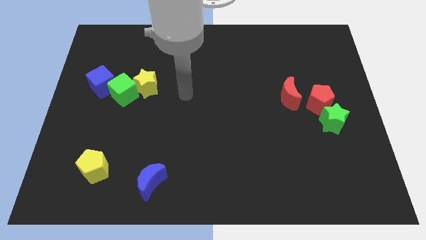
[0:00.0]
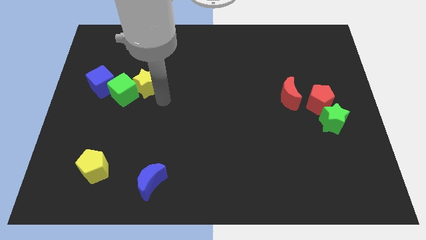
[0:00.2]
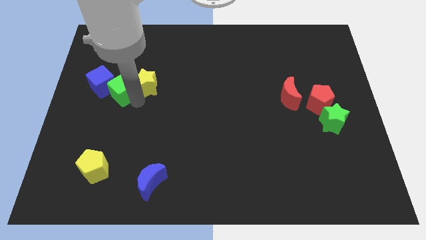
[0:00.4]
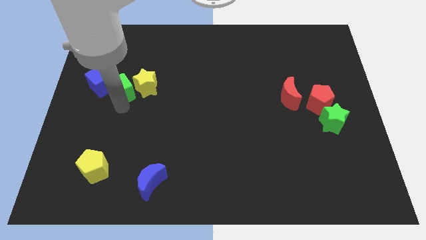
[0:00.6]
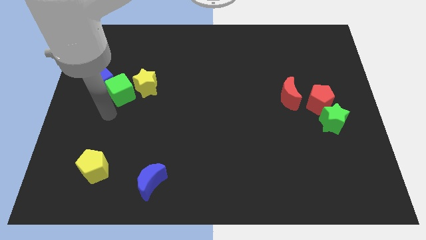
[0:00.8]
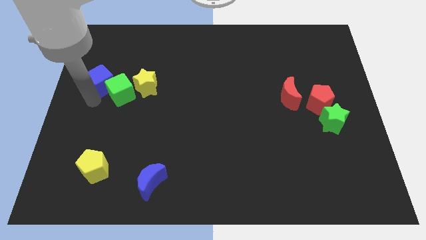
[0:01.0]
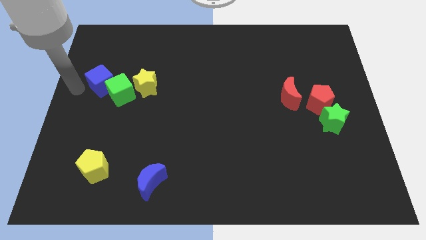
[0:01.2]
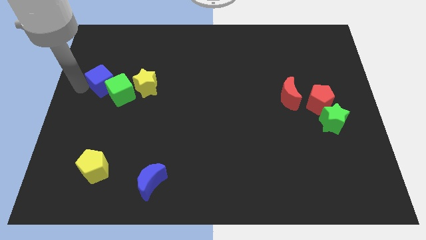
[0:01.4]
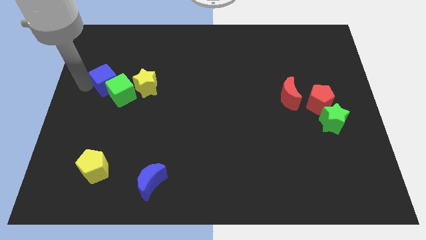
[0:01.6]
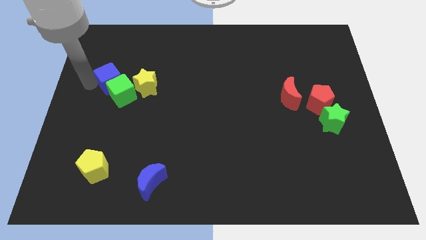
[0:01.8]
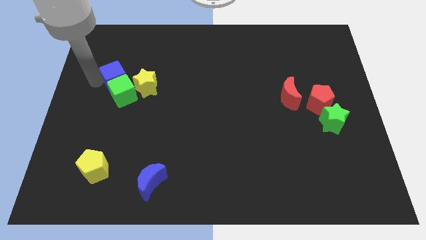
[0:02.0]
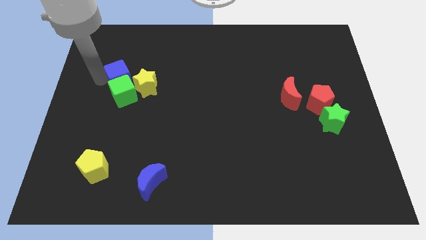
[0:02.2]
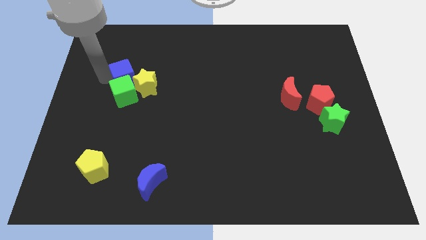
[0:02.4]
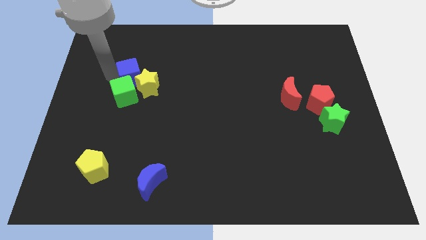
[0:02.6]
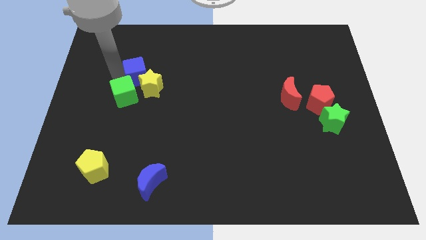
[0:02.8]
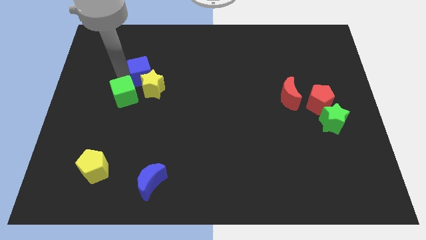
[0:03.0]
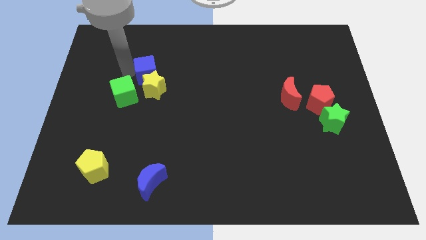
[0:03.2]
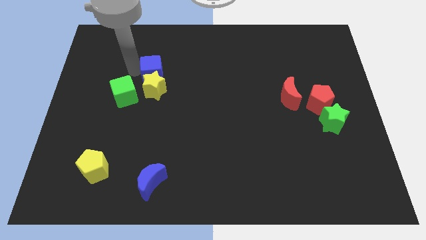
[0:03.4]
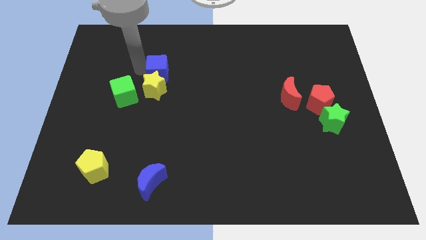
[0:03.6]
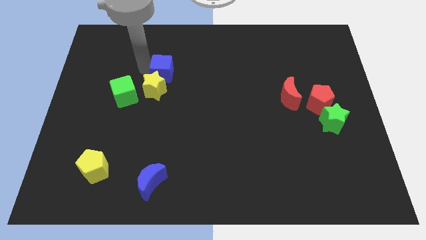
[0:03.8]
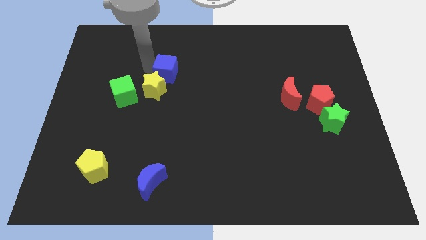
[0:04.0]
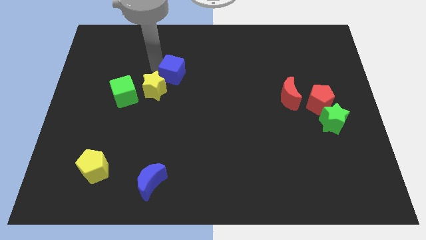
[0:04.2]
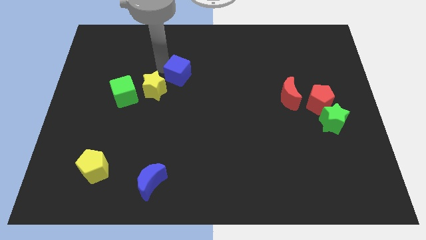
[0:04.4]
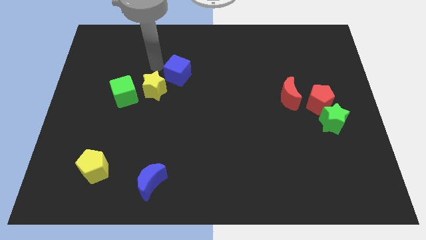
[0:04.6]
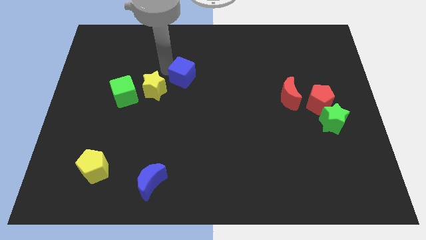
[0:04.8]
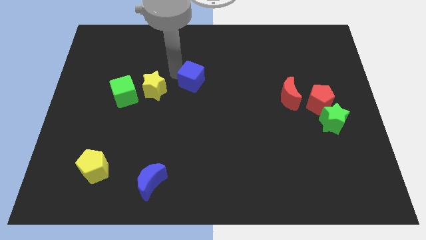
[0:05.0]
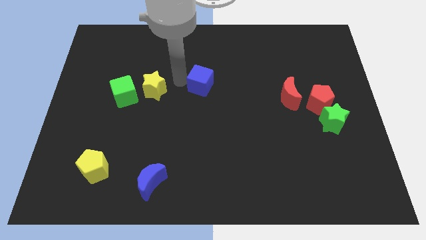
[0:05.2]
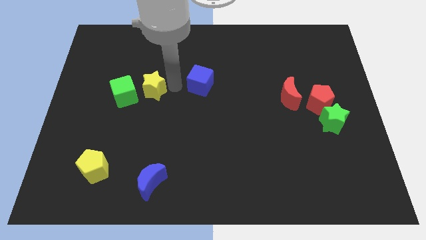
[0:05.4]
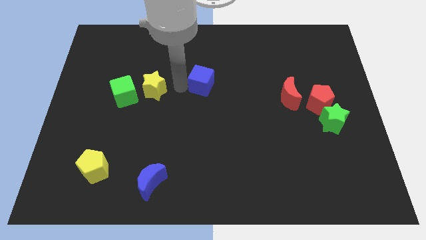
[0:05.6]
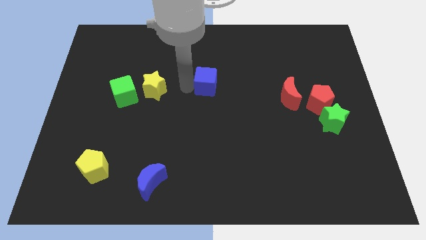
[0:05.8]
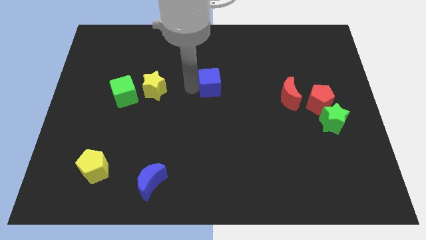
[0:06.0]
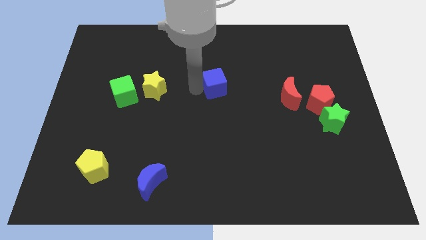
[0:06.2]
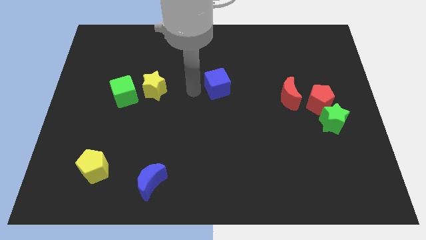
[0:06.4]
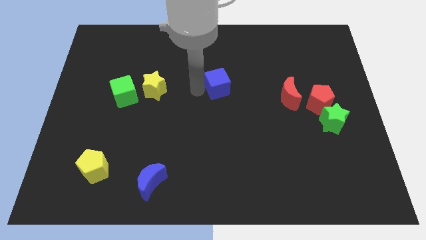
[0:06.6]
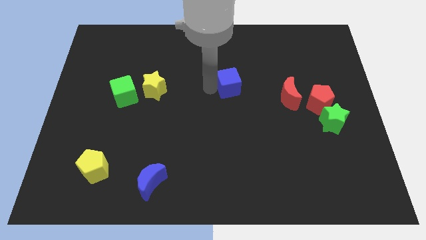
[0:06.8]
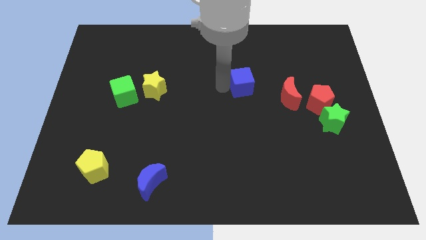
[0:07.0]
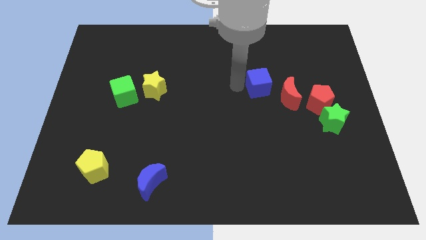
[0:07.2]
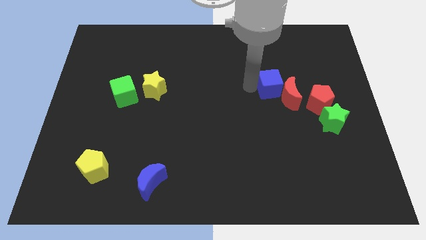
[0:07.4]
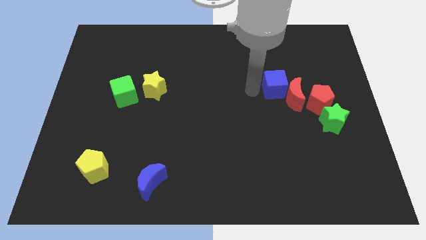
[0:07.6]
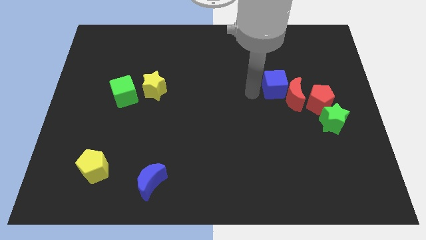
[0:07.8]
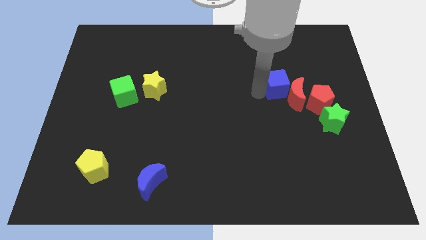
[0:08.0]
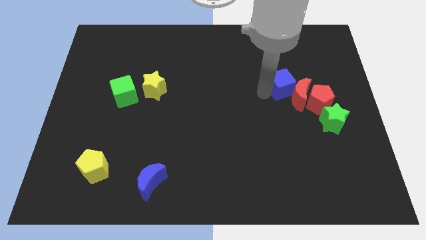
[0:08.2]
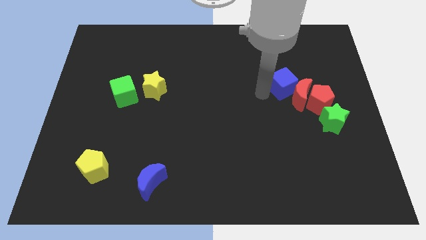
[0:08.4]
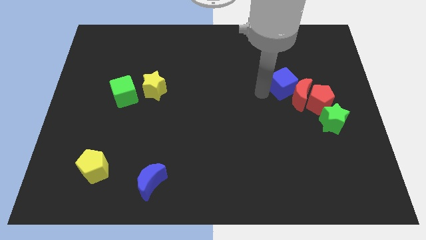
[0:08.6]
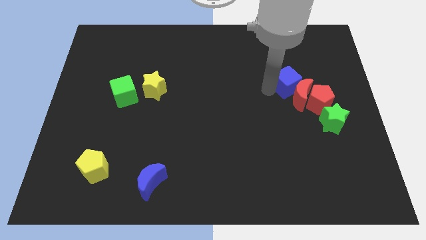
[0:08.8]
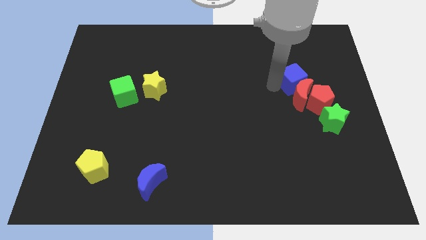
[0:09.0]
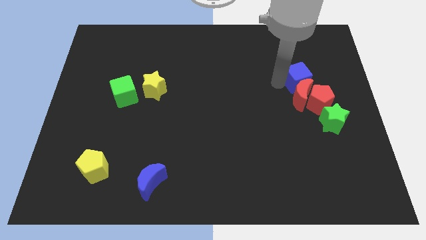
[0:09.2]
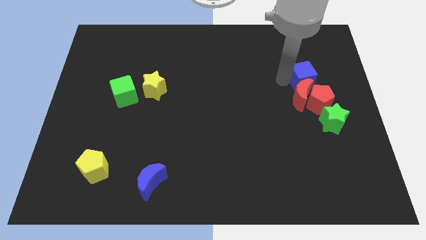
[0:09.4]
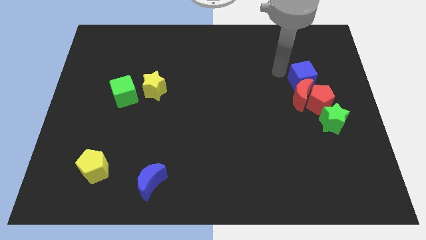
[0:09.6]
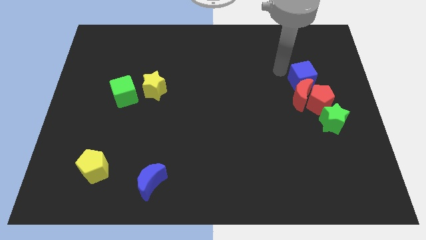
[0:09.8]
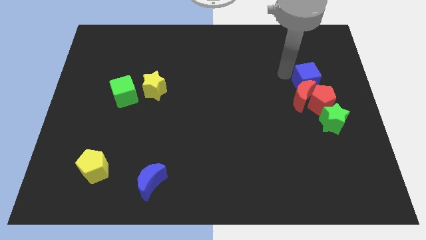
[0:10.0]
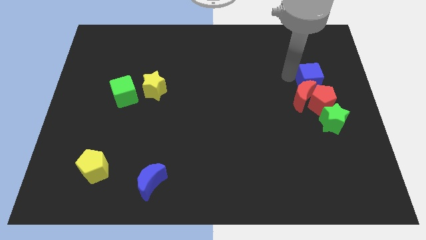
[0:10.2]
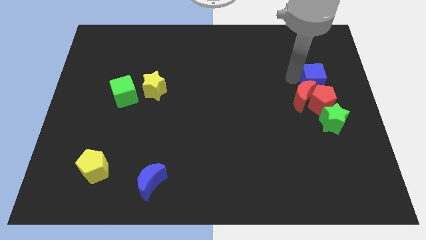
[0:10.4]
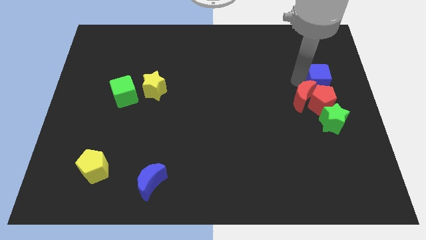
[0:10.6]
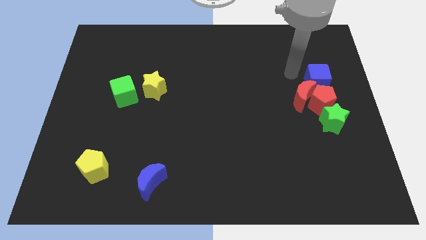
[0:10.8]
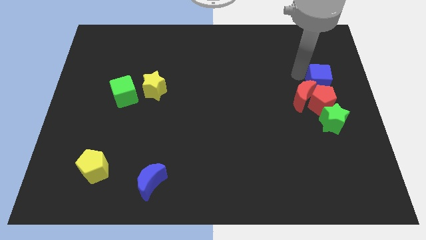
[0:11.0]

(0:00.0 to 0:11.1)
put the blue cube to the center right

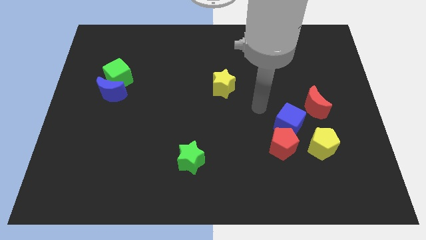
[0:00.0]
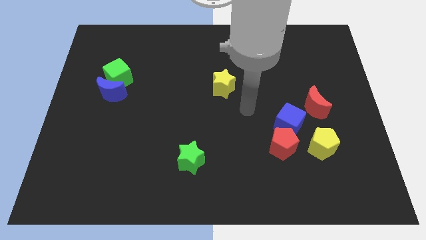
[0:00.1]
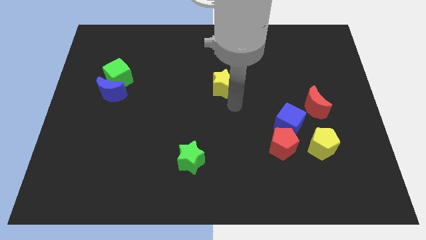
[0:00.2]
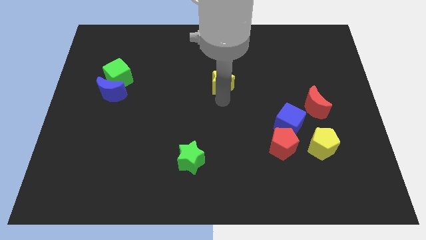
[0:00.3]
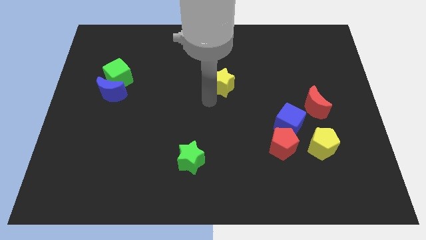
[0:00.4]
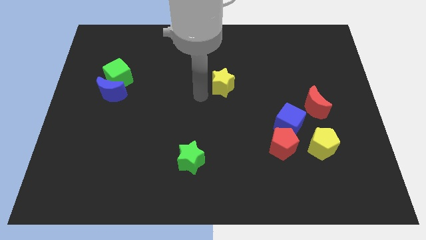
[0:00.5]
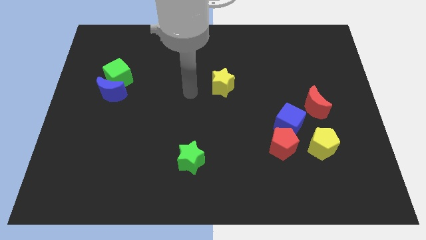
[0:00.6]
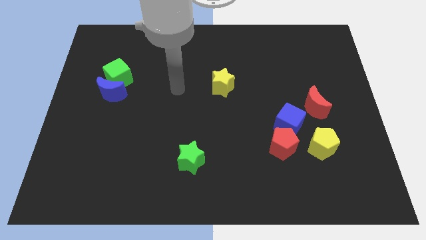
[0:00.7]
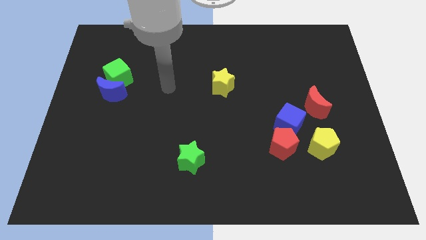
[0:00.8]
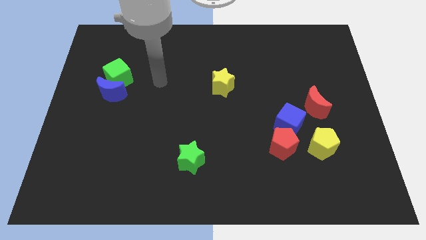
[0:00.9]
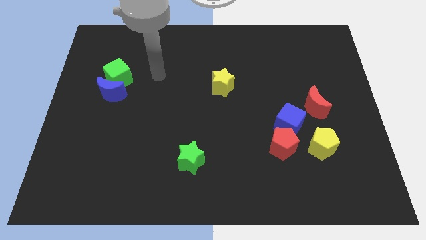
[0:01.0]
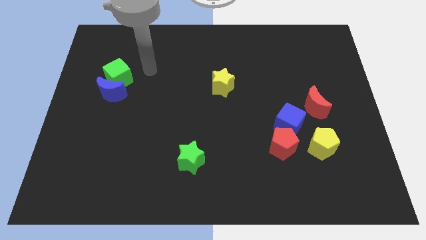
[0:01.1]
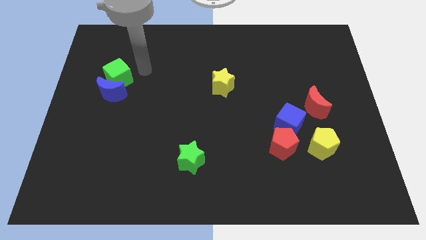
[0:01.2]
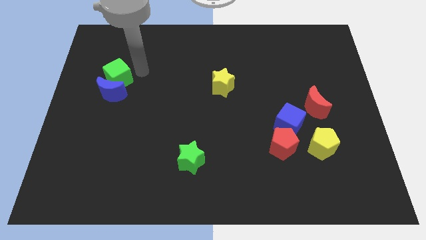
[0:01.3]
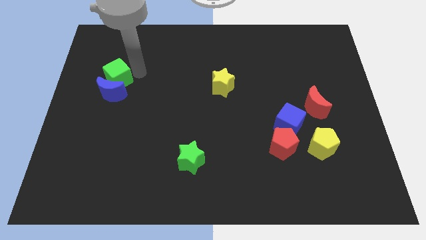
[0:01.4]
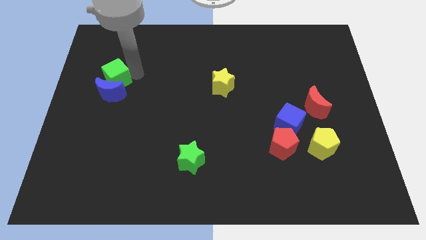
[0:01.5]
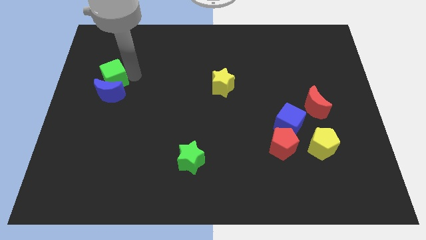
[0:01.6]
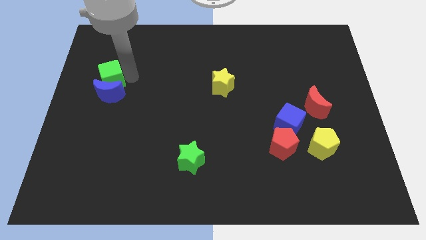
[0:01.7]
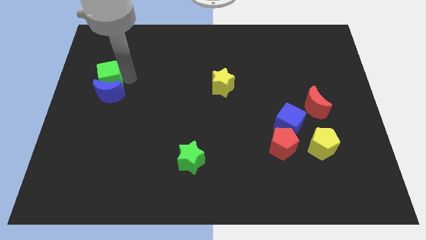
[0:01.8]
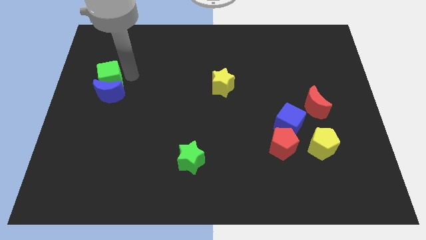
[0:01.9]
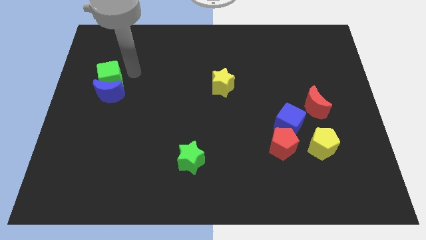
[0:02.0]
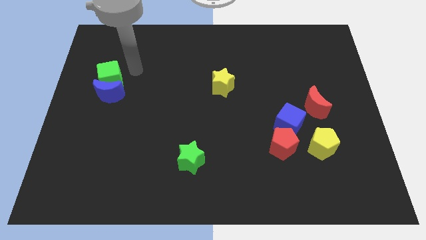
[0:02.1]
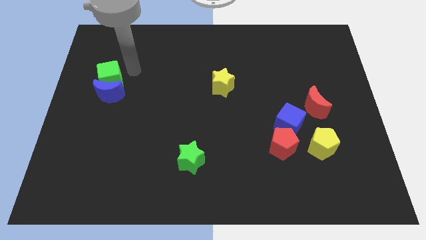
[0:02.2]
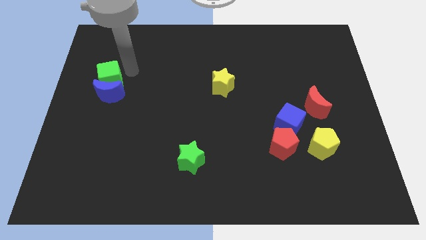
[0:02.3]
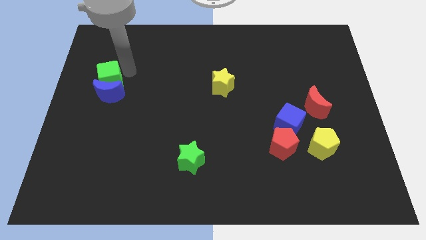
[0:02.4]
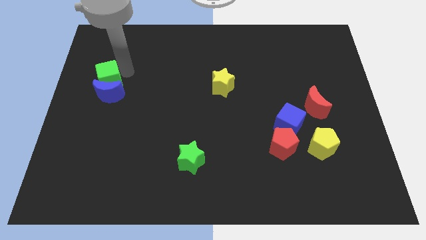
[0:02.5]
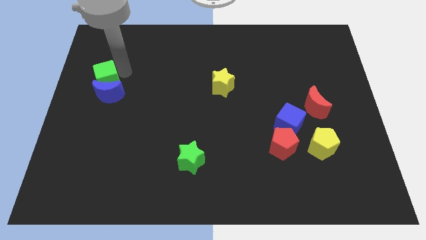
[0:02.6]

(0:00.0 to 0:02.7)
move the green cube to the center left
